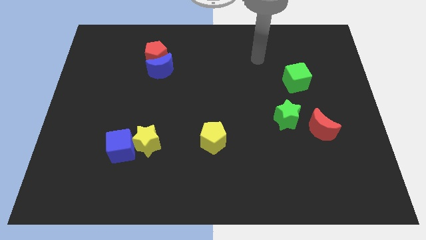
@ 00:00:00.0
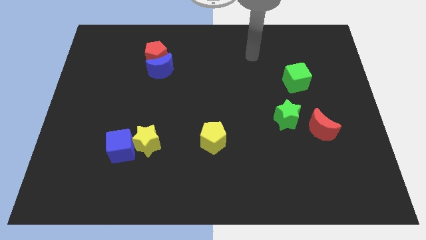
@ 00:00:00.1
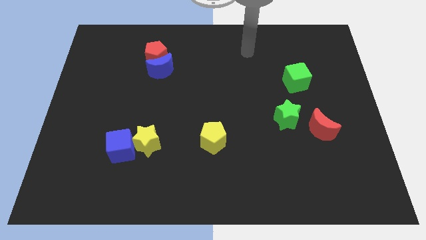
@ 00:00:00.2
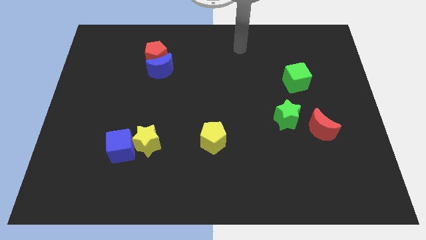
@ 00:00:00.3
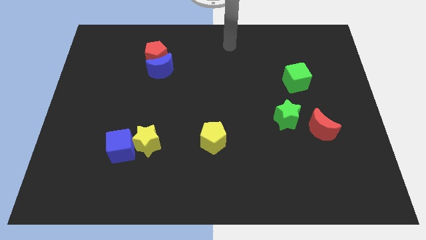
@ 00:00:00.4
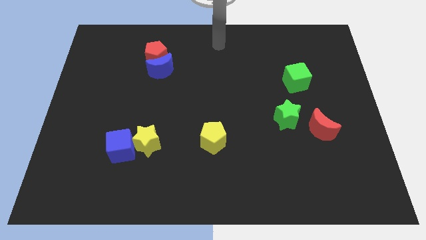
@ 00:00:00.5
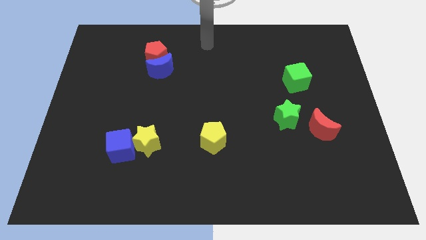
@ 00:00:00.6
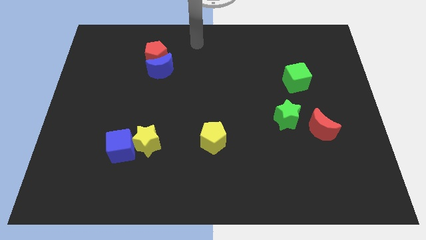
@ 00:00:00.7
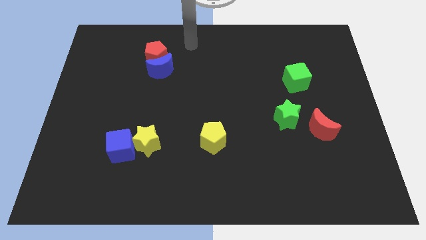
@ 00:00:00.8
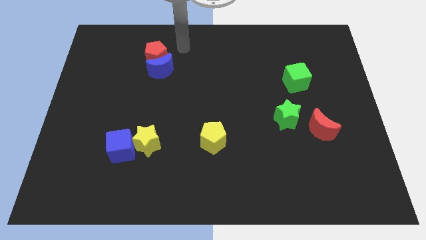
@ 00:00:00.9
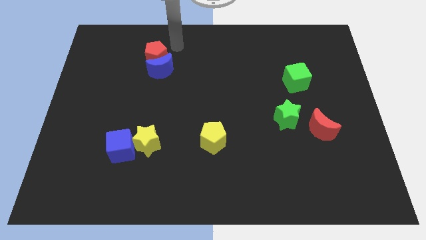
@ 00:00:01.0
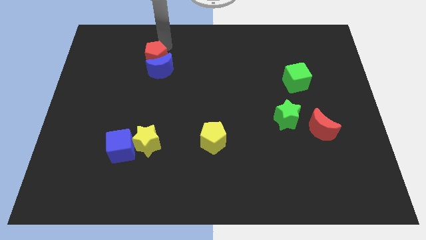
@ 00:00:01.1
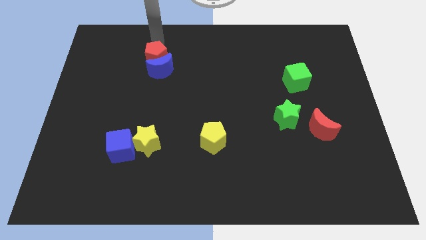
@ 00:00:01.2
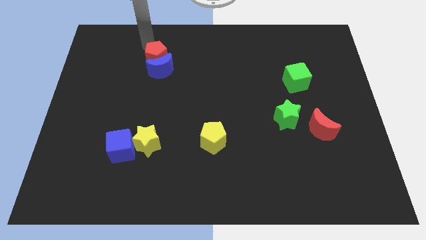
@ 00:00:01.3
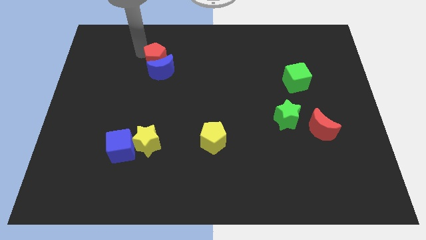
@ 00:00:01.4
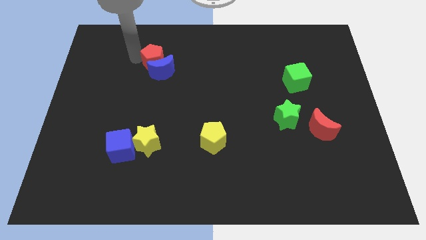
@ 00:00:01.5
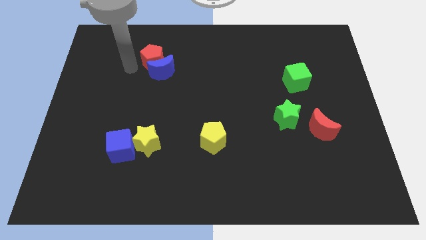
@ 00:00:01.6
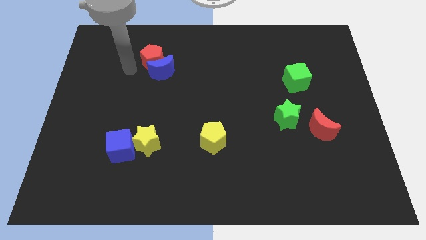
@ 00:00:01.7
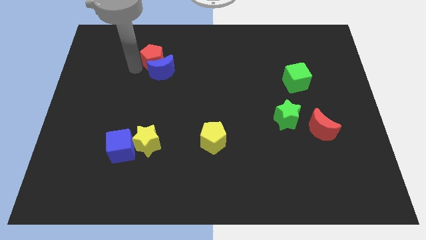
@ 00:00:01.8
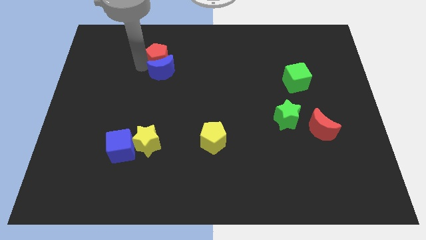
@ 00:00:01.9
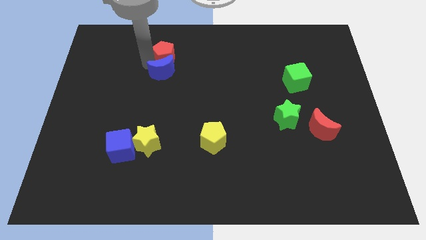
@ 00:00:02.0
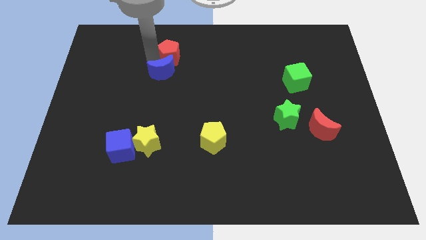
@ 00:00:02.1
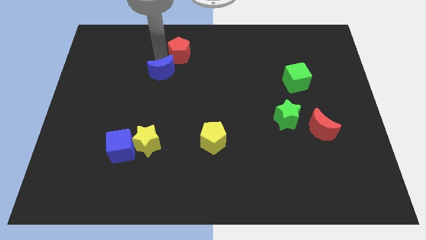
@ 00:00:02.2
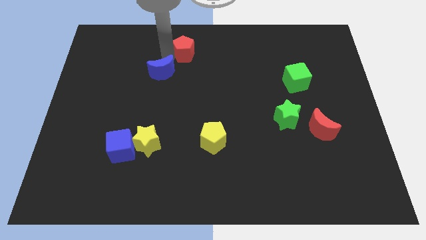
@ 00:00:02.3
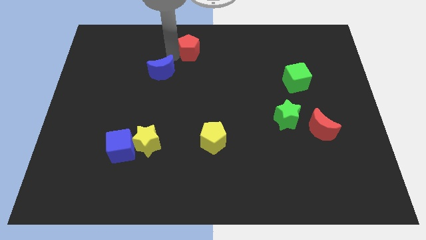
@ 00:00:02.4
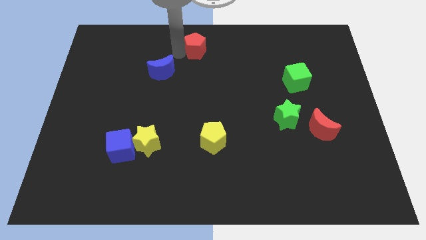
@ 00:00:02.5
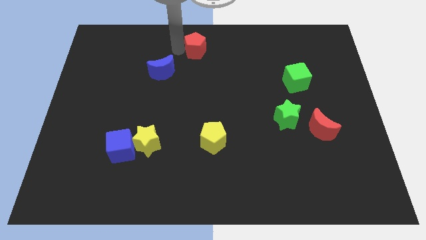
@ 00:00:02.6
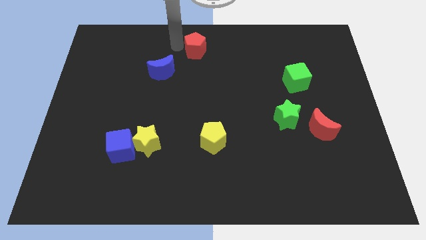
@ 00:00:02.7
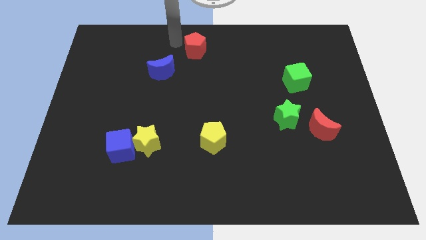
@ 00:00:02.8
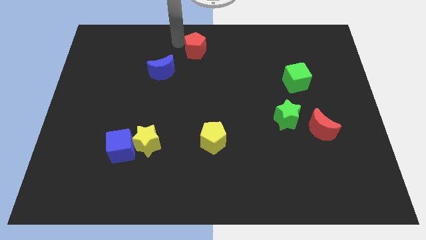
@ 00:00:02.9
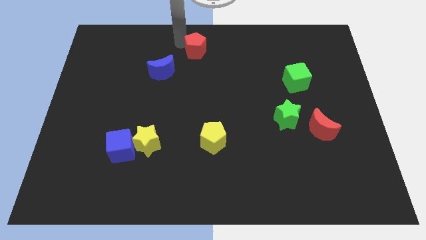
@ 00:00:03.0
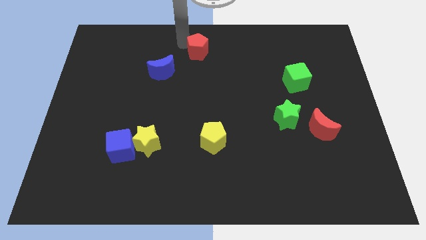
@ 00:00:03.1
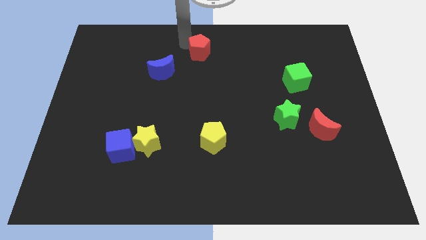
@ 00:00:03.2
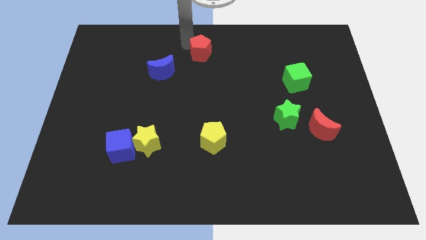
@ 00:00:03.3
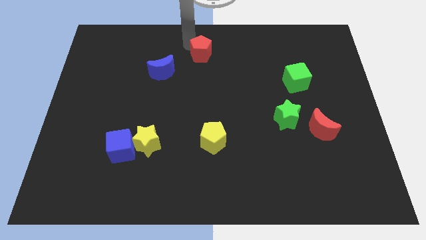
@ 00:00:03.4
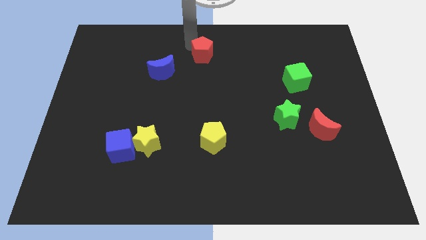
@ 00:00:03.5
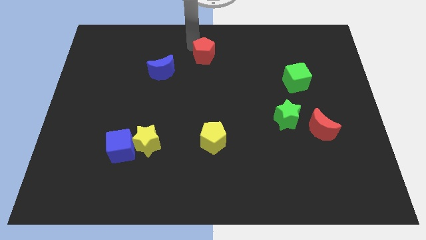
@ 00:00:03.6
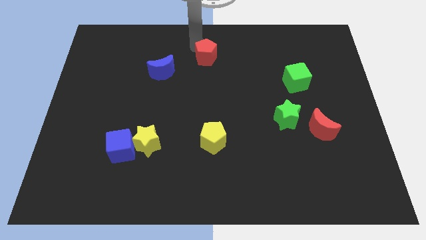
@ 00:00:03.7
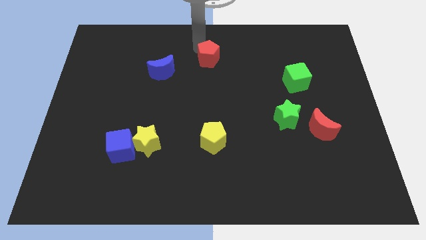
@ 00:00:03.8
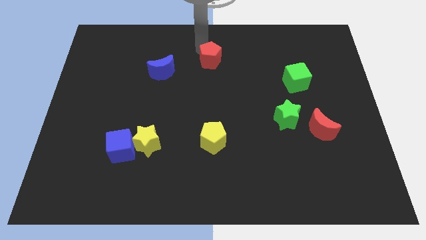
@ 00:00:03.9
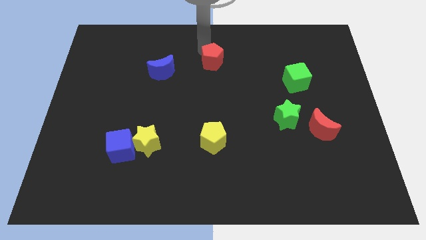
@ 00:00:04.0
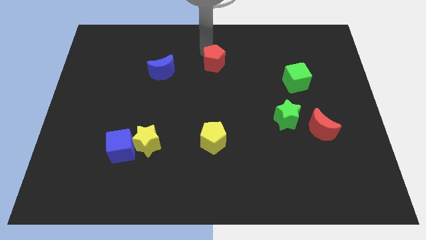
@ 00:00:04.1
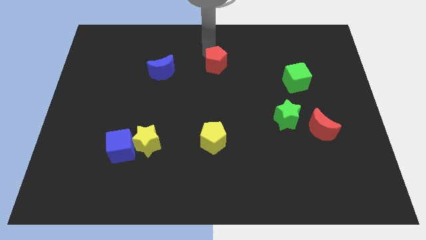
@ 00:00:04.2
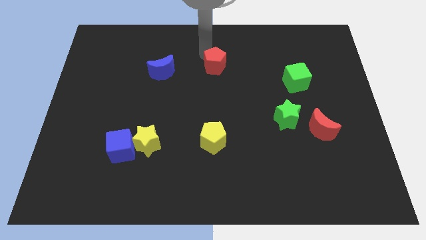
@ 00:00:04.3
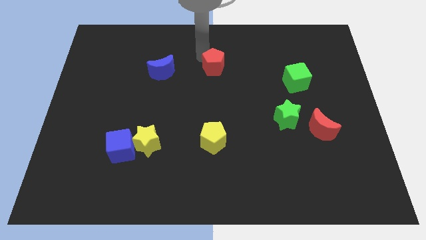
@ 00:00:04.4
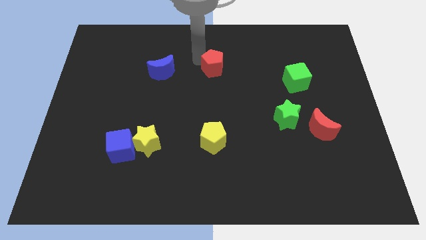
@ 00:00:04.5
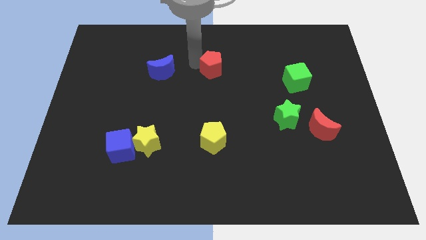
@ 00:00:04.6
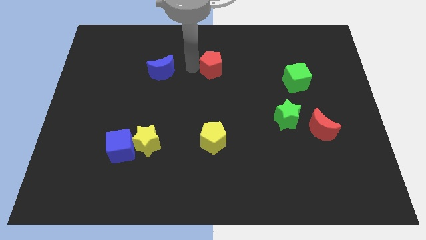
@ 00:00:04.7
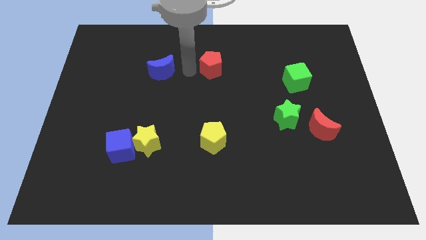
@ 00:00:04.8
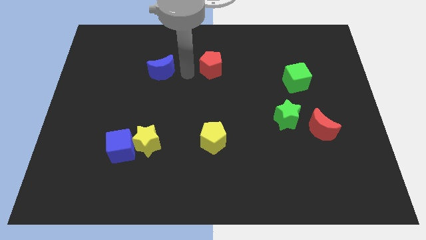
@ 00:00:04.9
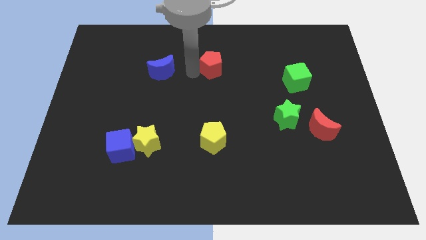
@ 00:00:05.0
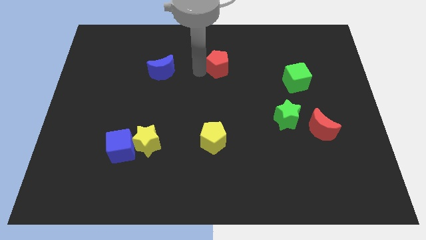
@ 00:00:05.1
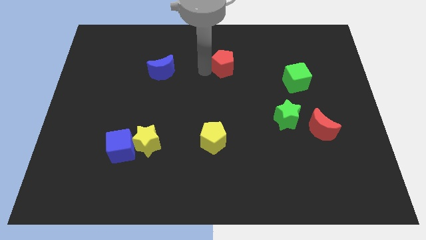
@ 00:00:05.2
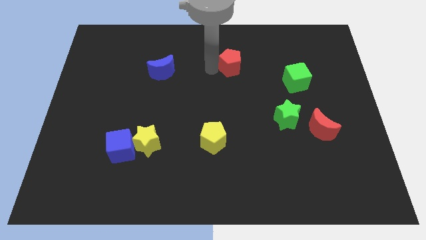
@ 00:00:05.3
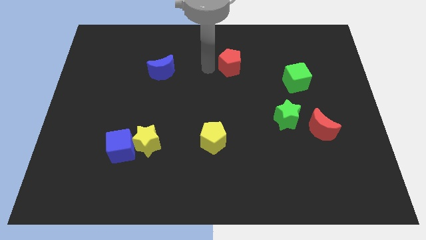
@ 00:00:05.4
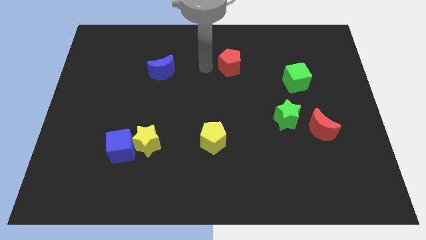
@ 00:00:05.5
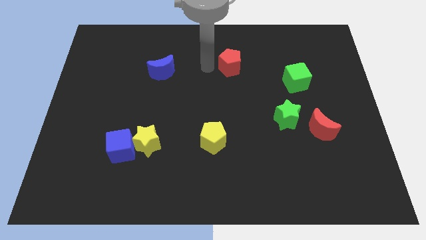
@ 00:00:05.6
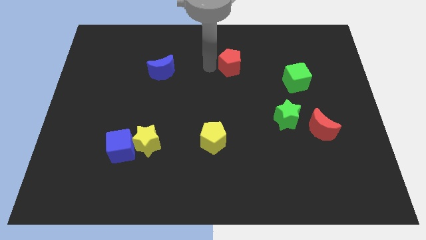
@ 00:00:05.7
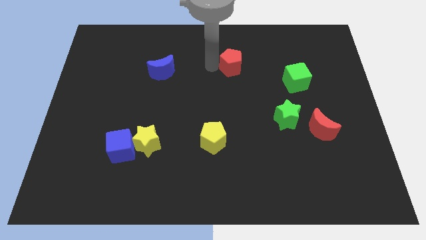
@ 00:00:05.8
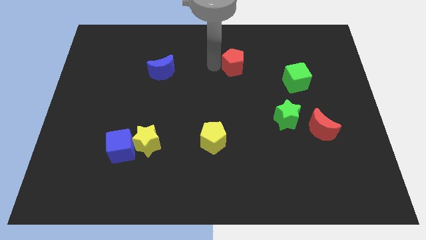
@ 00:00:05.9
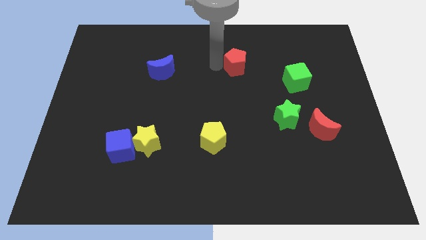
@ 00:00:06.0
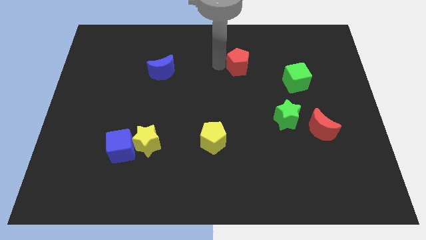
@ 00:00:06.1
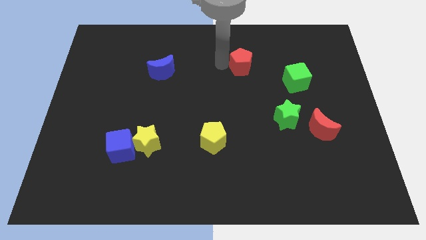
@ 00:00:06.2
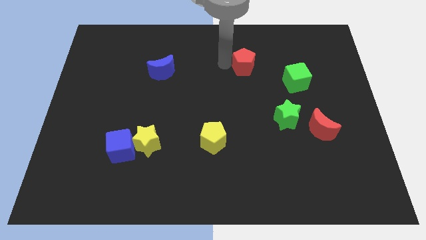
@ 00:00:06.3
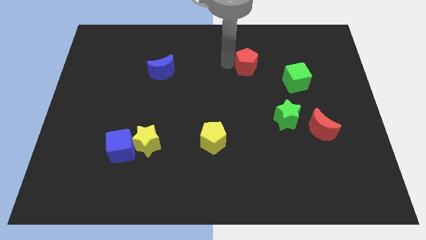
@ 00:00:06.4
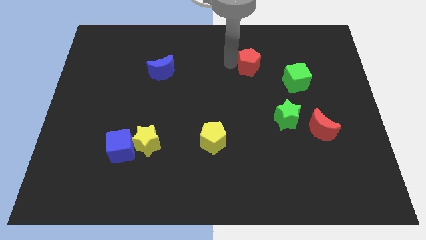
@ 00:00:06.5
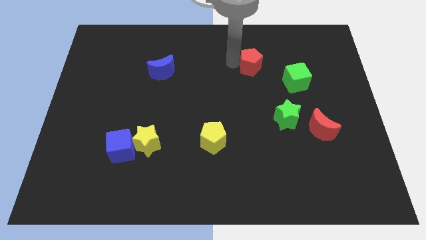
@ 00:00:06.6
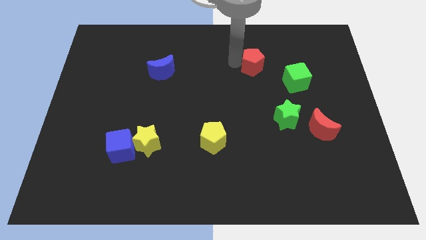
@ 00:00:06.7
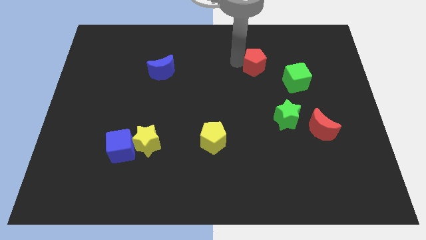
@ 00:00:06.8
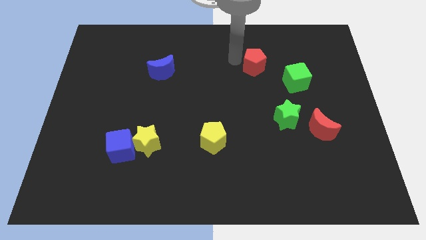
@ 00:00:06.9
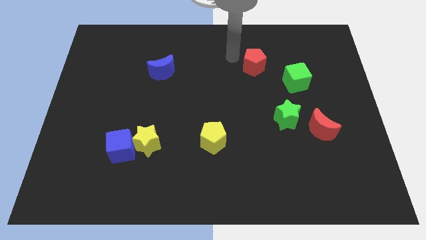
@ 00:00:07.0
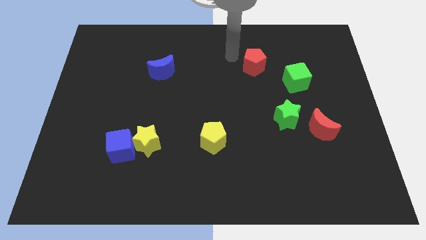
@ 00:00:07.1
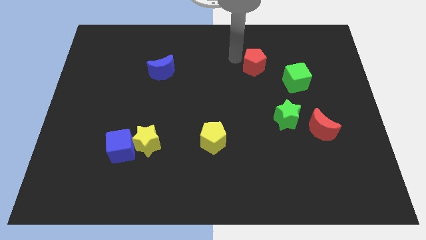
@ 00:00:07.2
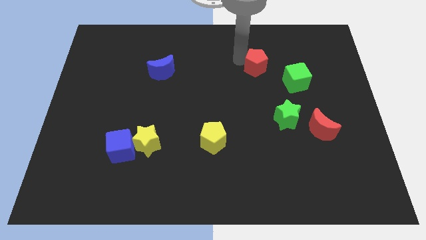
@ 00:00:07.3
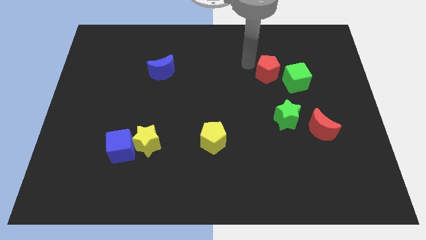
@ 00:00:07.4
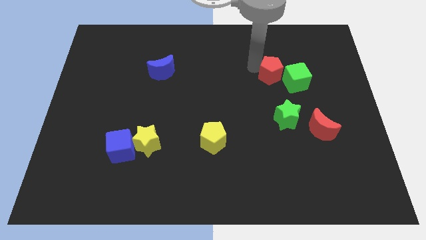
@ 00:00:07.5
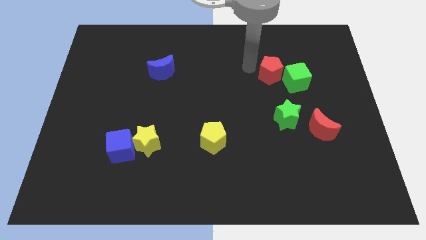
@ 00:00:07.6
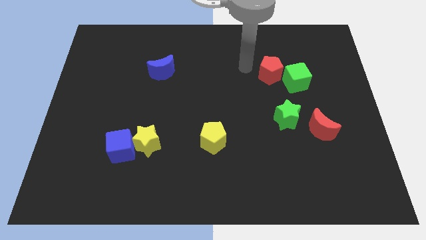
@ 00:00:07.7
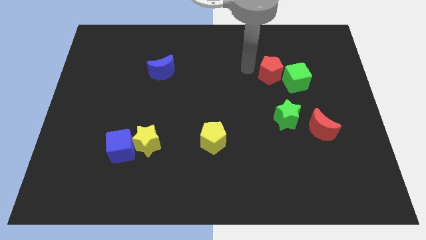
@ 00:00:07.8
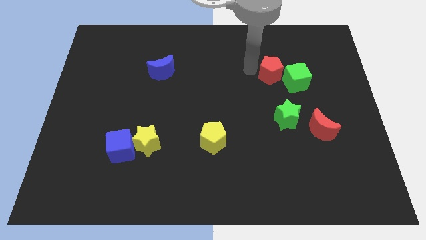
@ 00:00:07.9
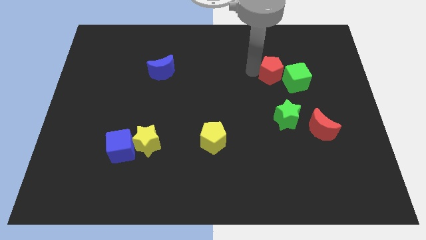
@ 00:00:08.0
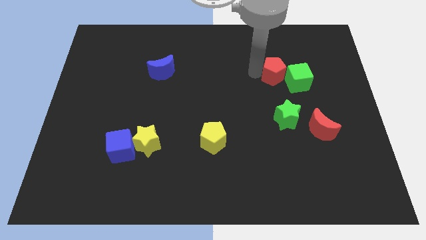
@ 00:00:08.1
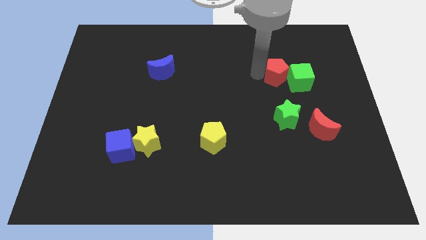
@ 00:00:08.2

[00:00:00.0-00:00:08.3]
slide the red pentagon close to the green cube
